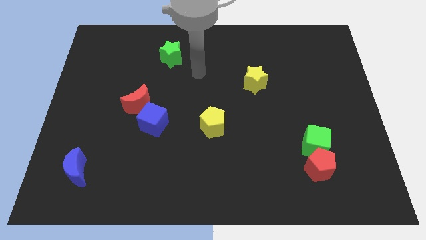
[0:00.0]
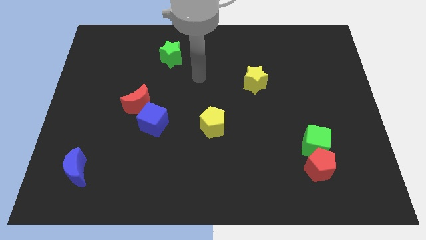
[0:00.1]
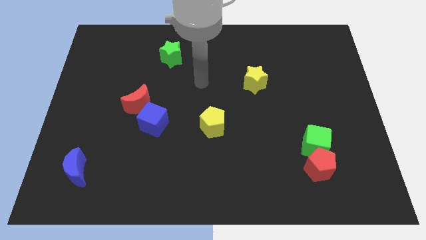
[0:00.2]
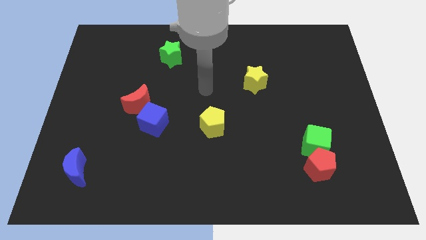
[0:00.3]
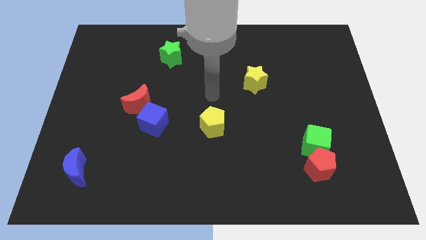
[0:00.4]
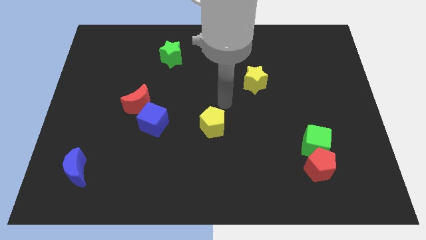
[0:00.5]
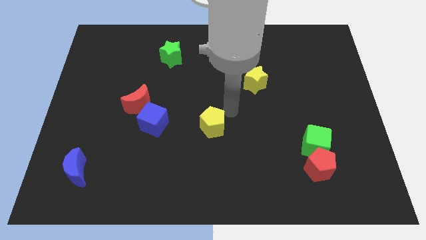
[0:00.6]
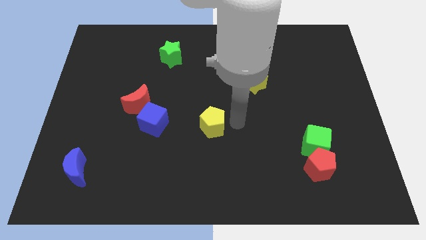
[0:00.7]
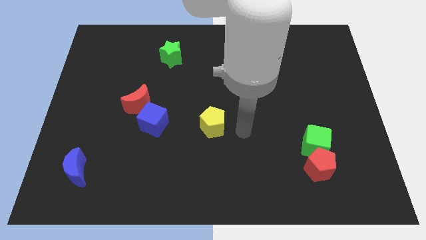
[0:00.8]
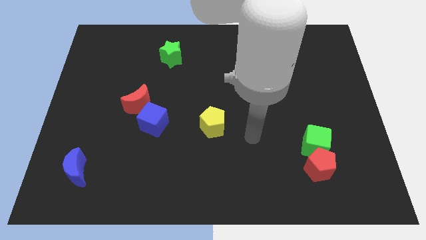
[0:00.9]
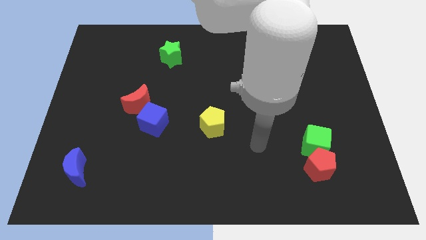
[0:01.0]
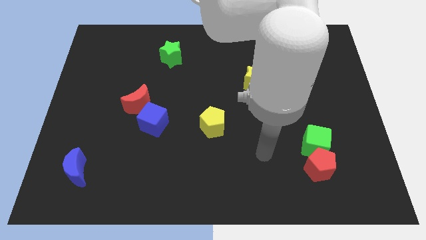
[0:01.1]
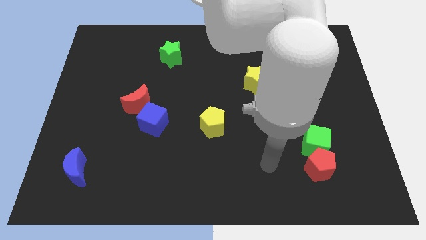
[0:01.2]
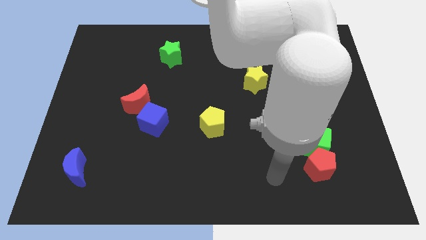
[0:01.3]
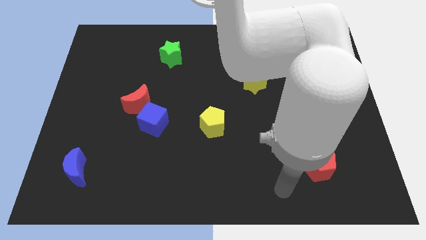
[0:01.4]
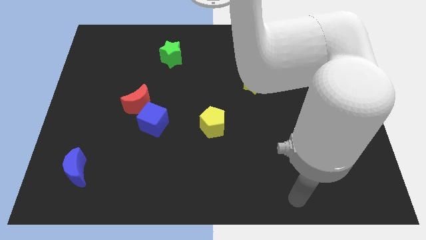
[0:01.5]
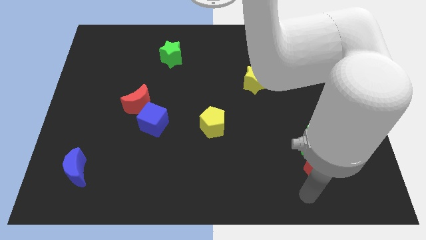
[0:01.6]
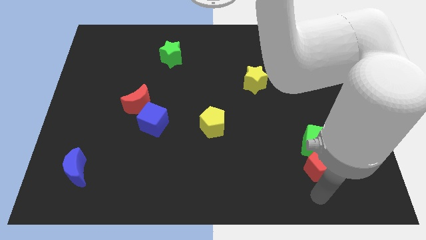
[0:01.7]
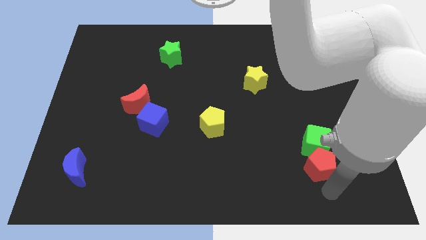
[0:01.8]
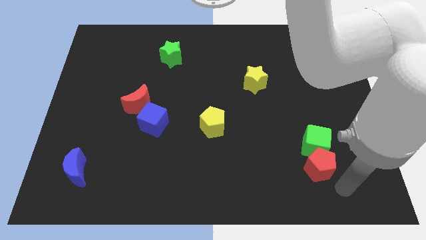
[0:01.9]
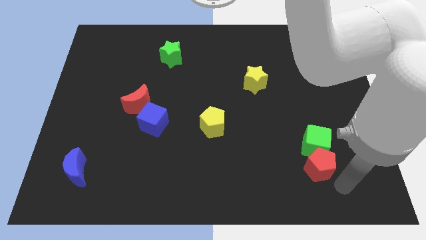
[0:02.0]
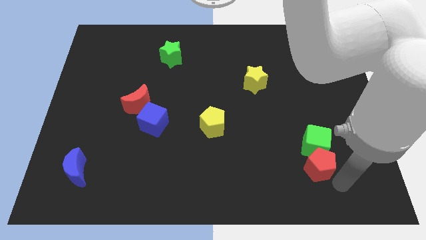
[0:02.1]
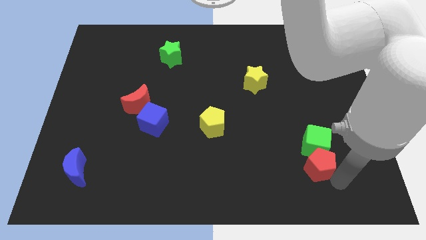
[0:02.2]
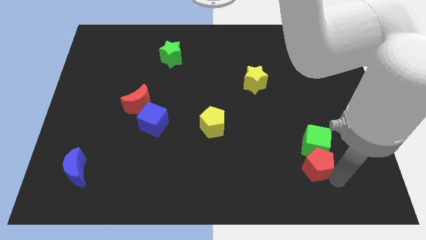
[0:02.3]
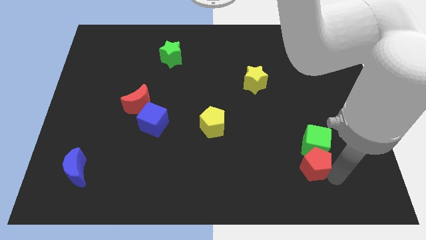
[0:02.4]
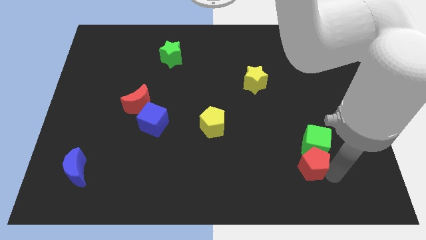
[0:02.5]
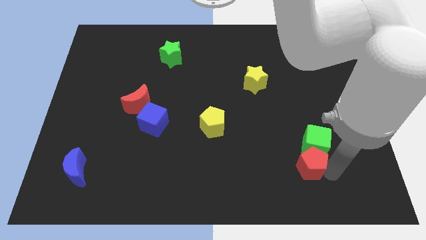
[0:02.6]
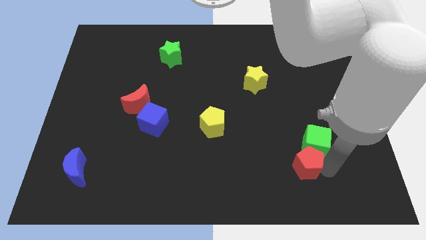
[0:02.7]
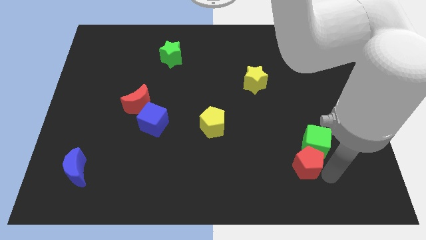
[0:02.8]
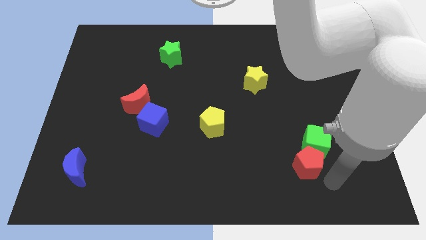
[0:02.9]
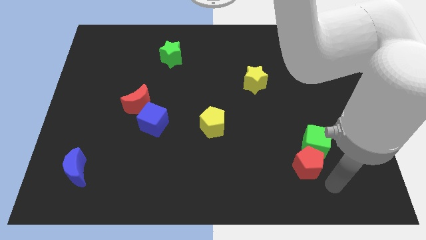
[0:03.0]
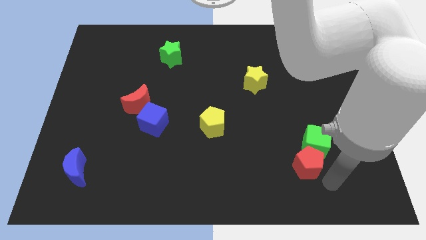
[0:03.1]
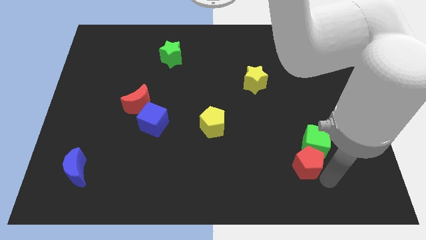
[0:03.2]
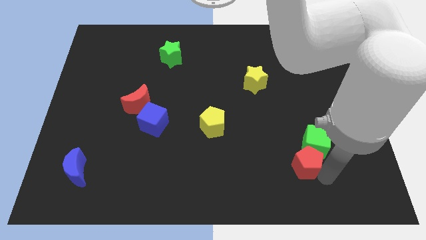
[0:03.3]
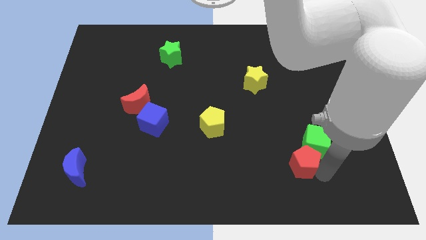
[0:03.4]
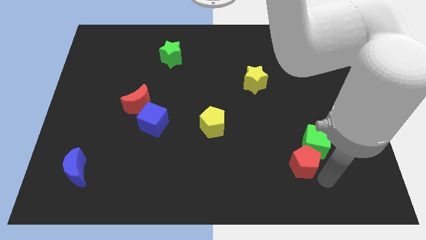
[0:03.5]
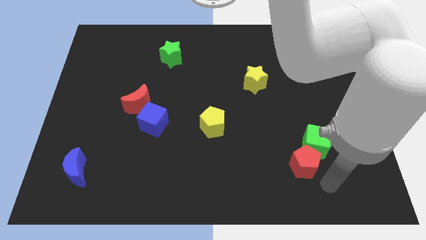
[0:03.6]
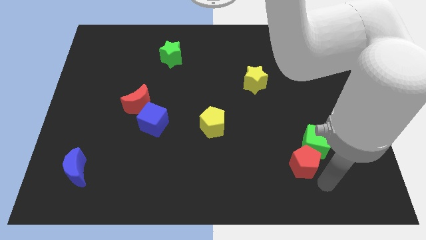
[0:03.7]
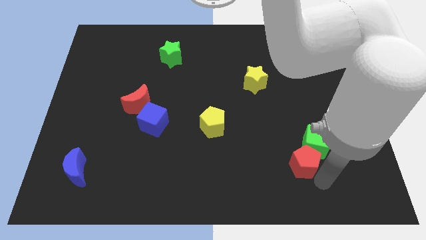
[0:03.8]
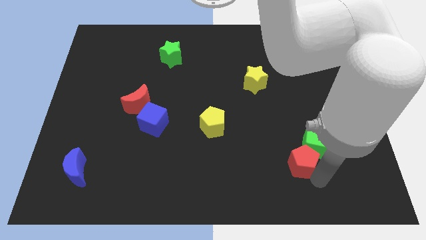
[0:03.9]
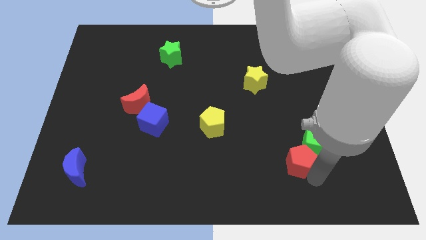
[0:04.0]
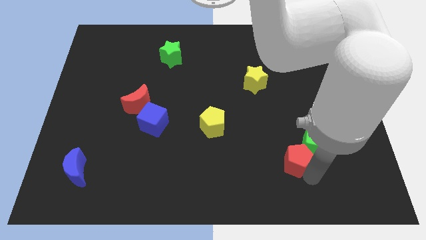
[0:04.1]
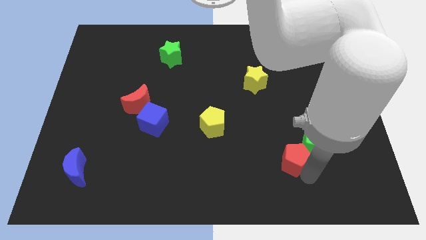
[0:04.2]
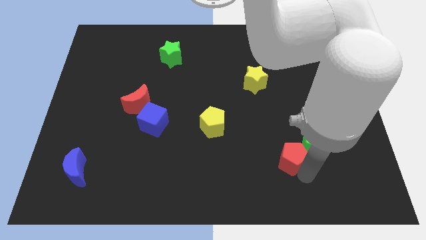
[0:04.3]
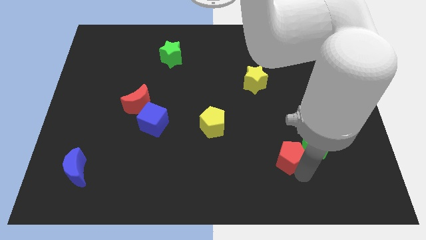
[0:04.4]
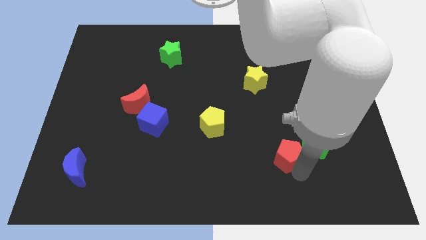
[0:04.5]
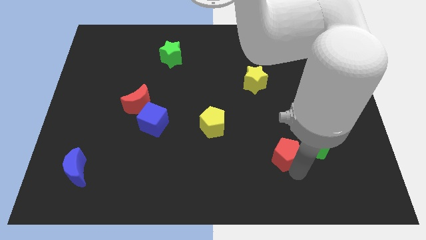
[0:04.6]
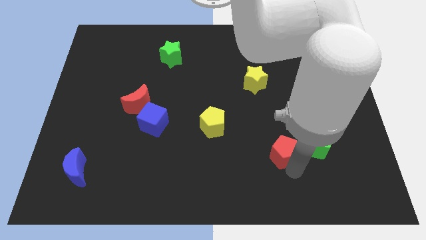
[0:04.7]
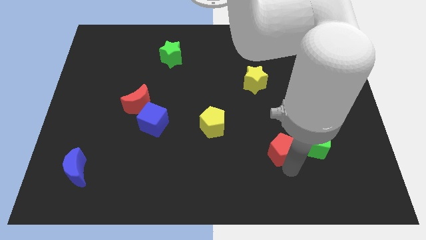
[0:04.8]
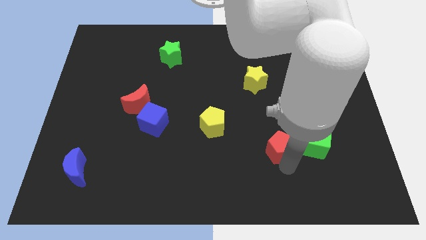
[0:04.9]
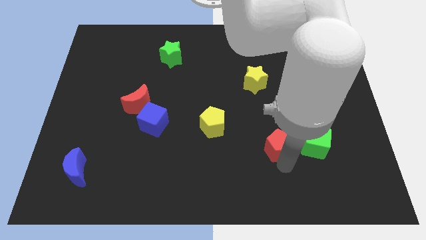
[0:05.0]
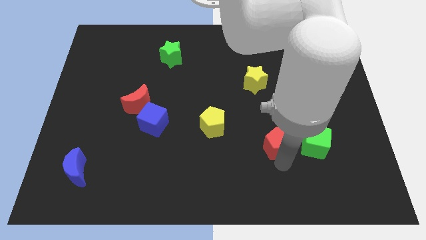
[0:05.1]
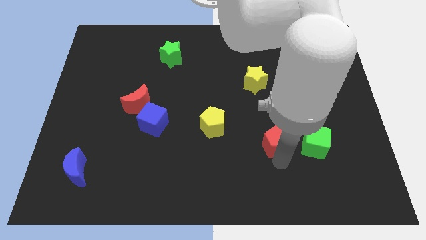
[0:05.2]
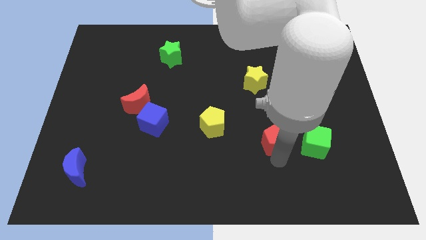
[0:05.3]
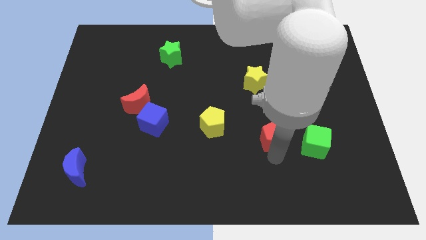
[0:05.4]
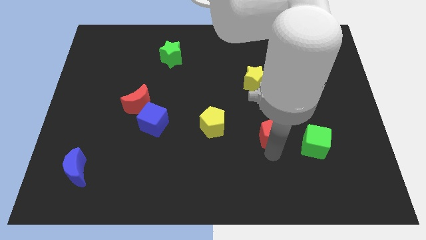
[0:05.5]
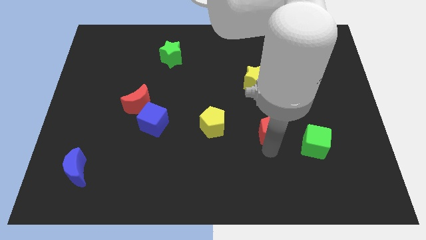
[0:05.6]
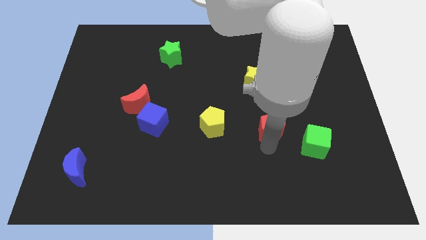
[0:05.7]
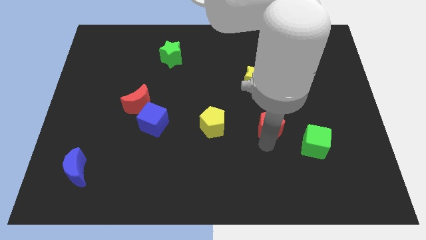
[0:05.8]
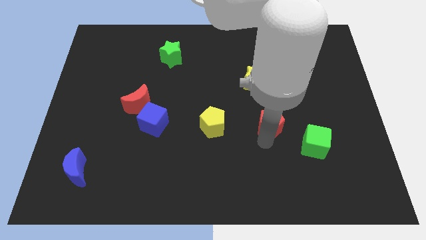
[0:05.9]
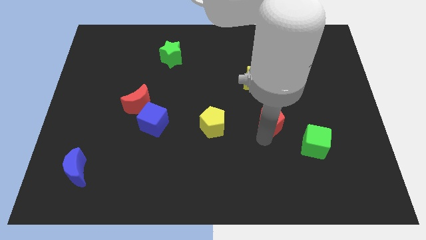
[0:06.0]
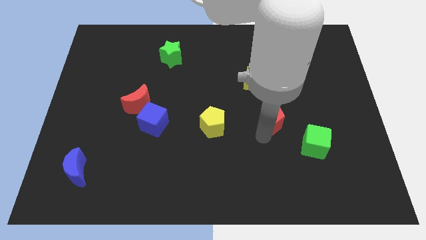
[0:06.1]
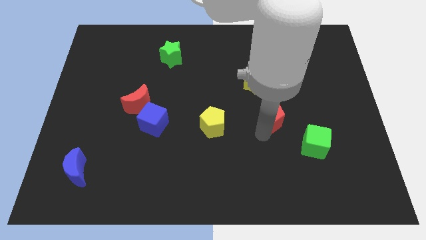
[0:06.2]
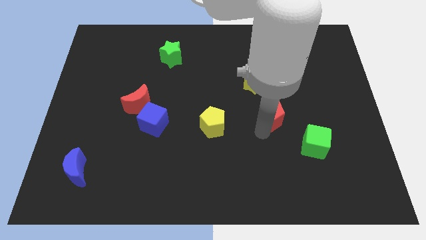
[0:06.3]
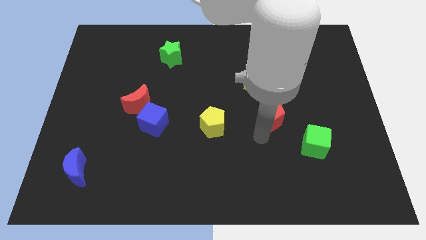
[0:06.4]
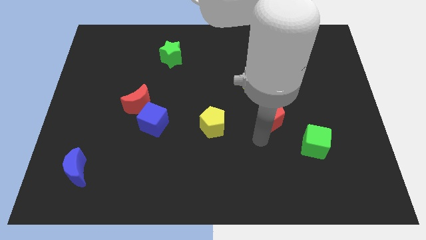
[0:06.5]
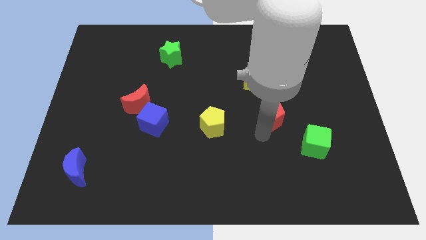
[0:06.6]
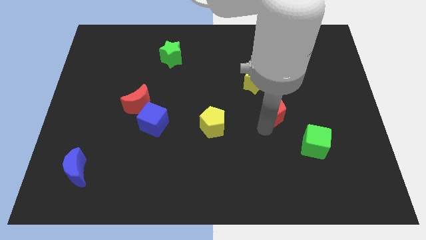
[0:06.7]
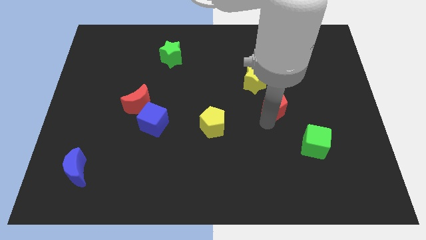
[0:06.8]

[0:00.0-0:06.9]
put the red pentagon diagonally down and to the right of the yellow star

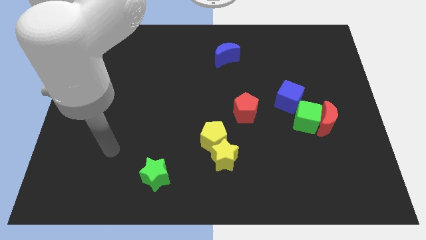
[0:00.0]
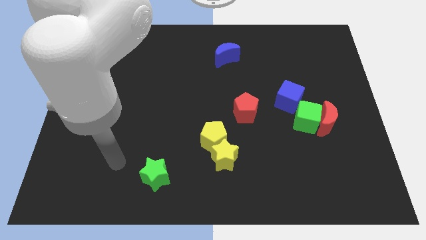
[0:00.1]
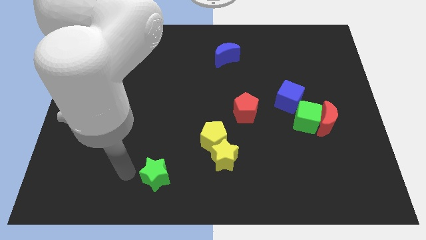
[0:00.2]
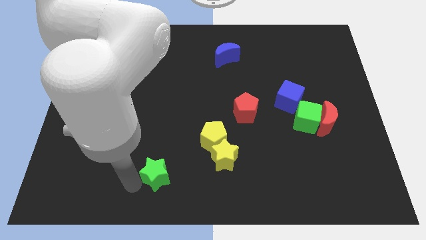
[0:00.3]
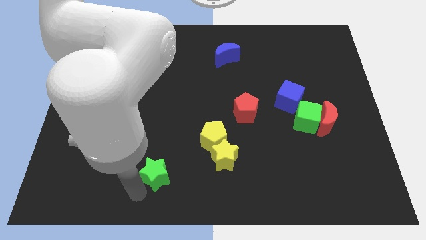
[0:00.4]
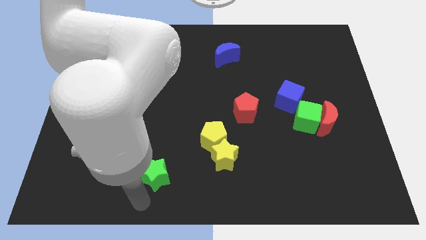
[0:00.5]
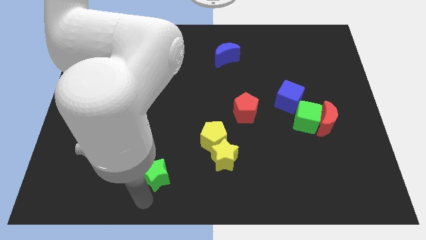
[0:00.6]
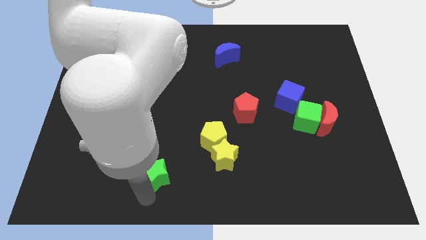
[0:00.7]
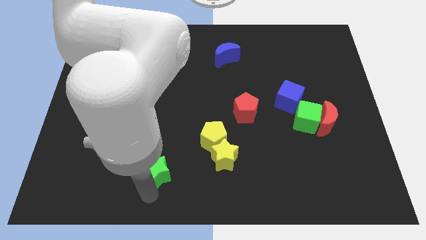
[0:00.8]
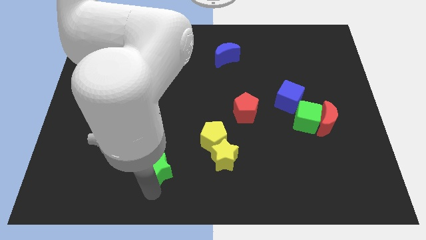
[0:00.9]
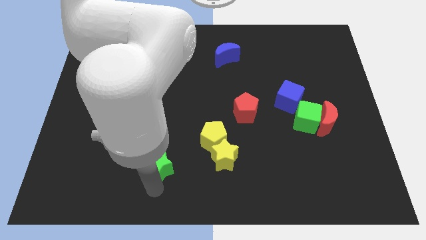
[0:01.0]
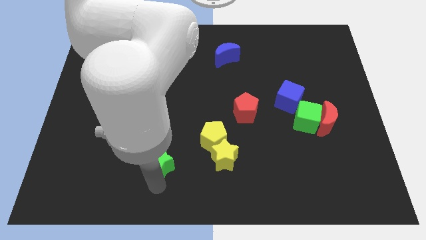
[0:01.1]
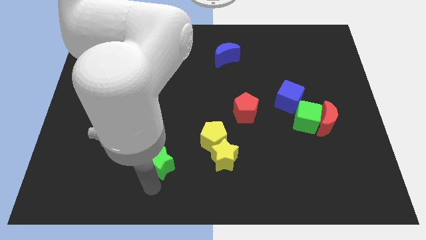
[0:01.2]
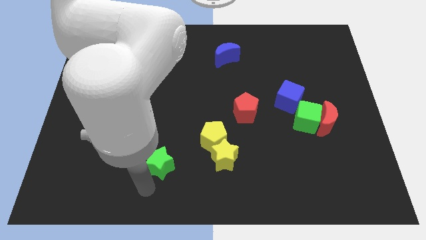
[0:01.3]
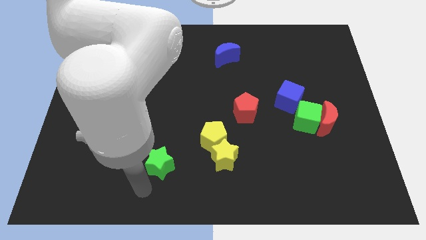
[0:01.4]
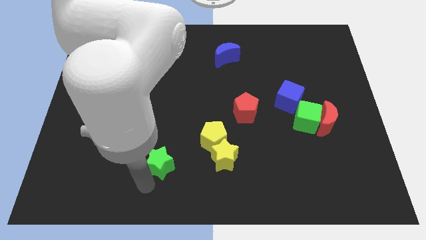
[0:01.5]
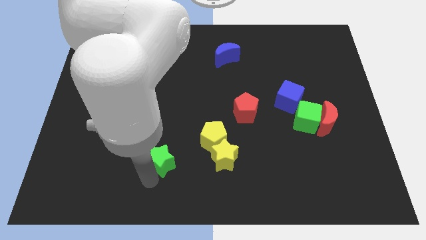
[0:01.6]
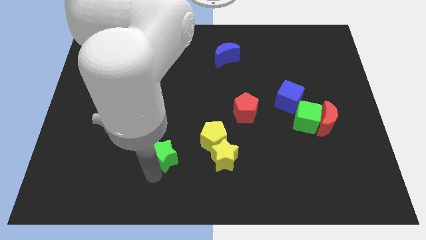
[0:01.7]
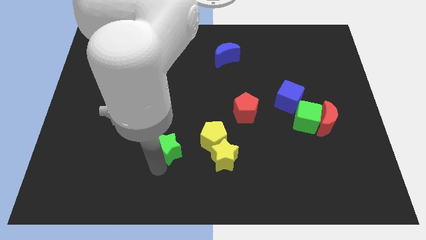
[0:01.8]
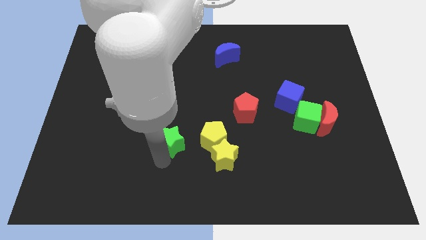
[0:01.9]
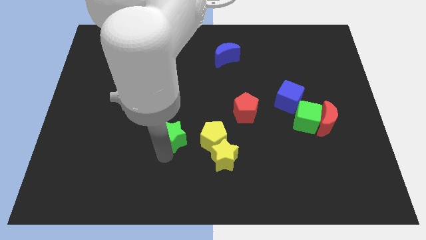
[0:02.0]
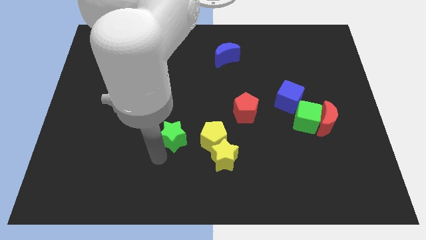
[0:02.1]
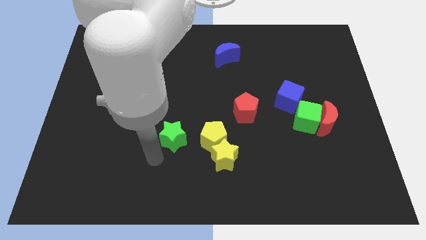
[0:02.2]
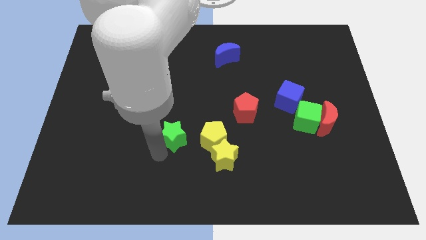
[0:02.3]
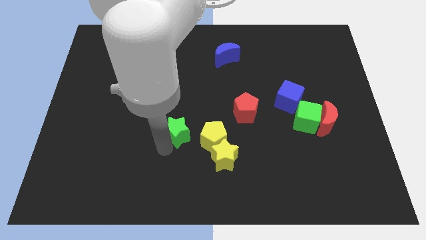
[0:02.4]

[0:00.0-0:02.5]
slide the green star diagonally up and to the left of the yellow pentagon
